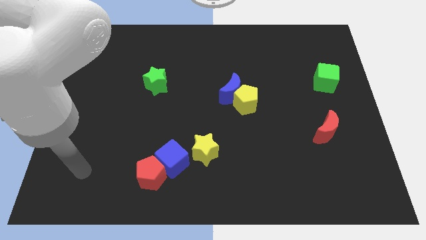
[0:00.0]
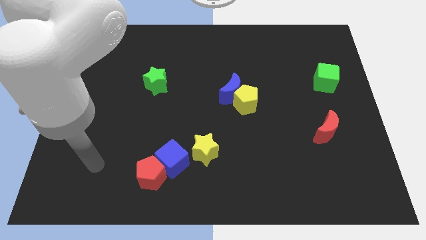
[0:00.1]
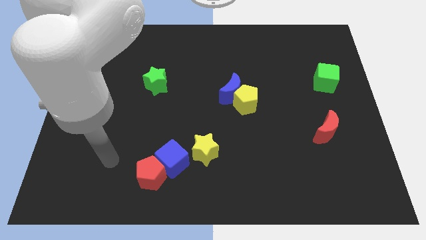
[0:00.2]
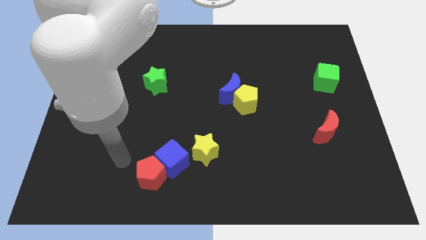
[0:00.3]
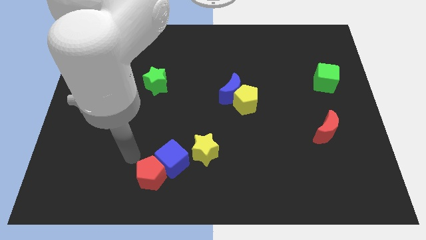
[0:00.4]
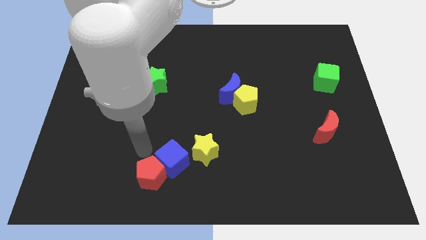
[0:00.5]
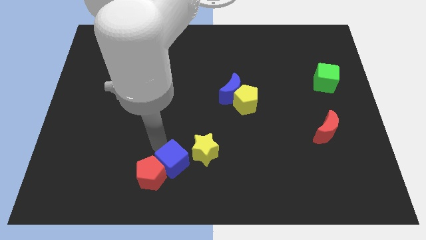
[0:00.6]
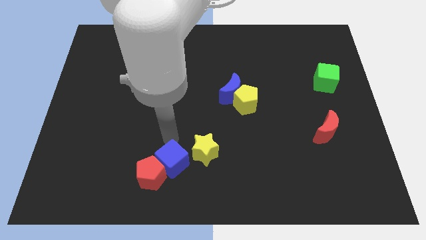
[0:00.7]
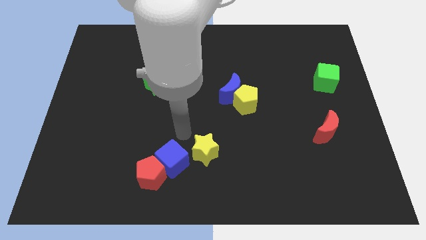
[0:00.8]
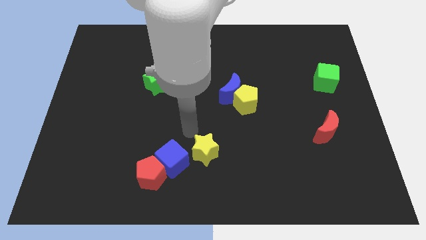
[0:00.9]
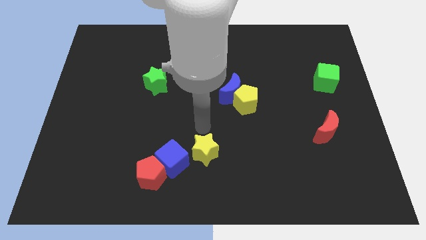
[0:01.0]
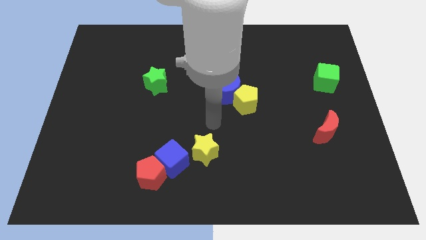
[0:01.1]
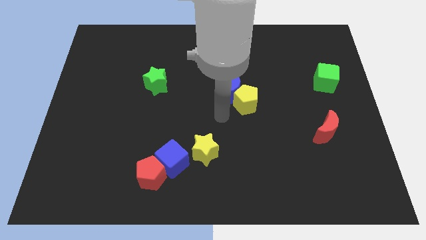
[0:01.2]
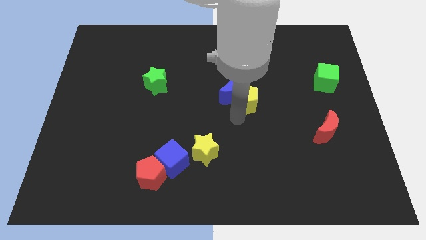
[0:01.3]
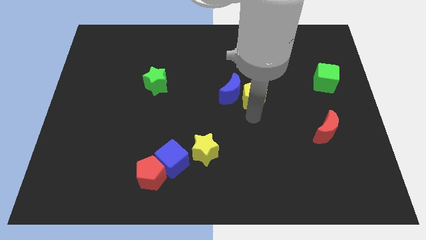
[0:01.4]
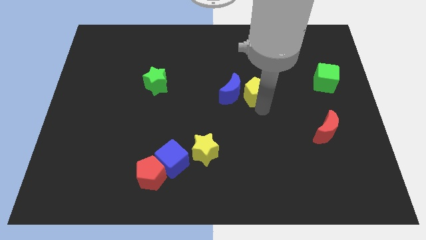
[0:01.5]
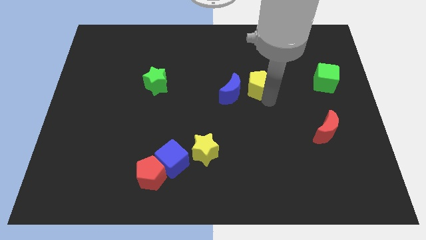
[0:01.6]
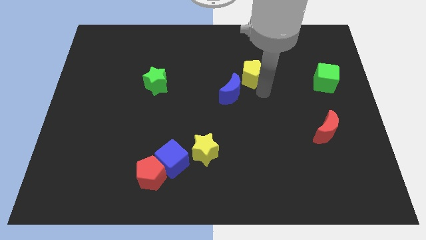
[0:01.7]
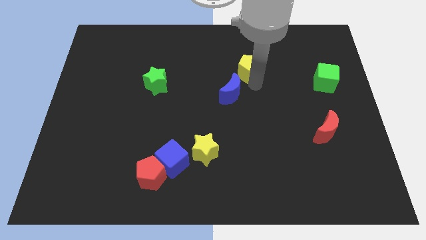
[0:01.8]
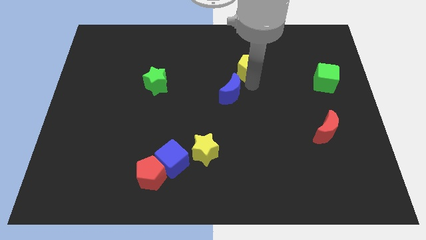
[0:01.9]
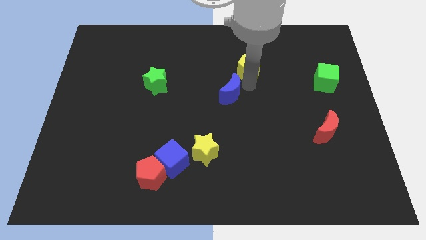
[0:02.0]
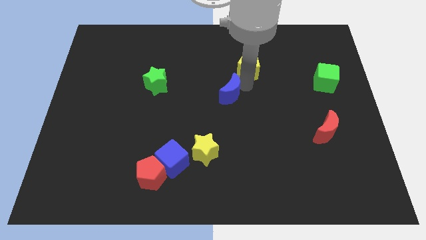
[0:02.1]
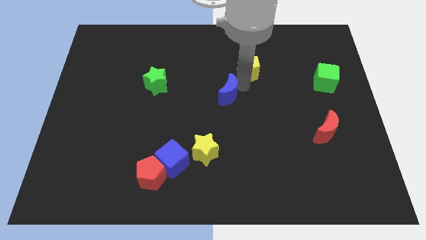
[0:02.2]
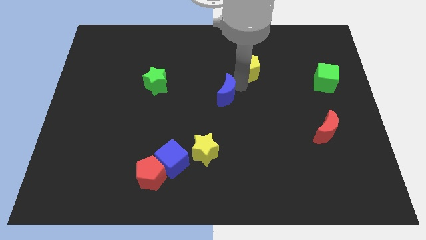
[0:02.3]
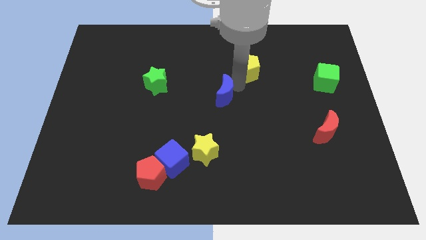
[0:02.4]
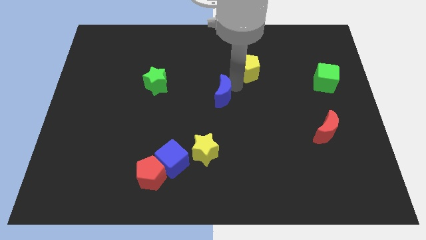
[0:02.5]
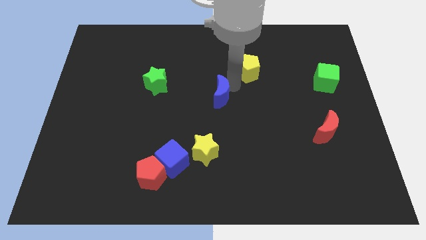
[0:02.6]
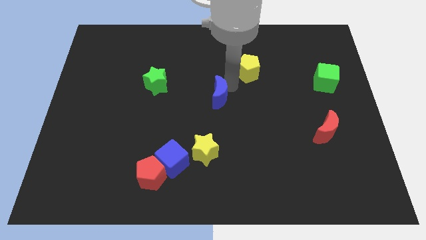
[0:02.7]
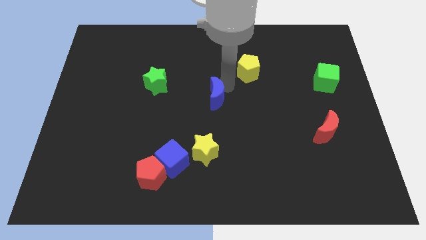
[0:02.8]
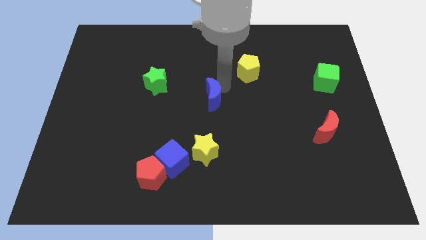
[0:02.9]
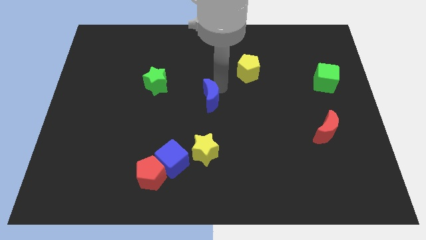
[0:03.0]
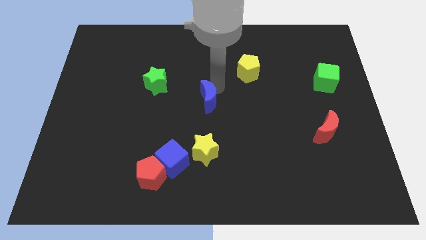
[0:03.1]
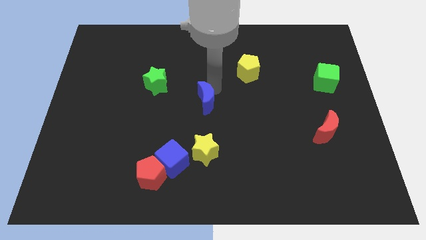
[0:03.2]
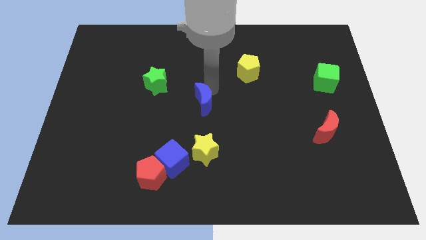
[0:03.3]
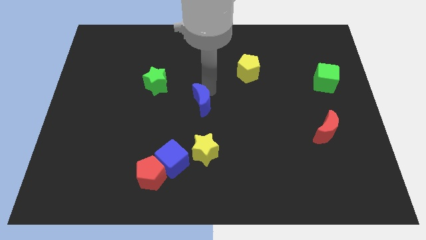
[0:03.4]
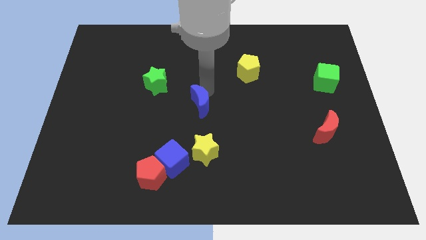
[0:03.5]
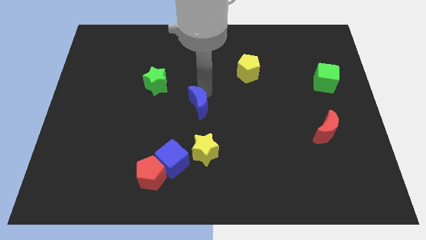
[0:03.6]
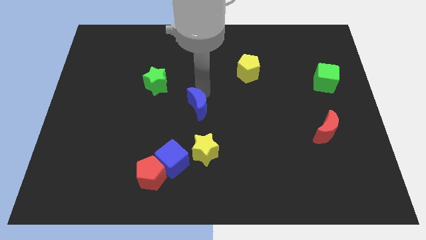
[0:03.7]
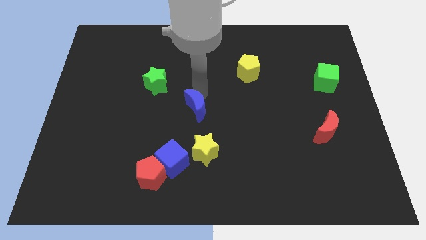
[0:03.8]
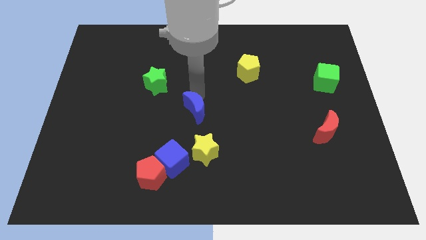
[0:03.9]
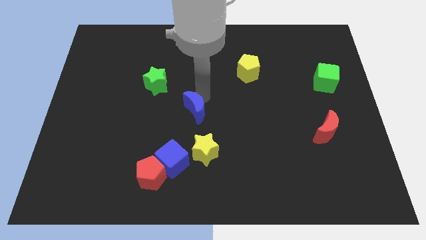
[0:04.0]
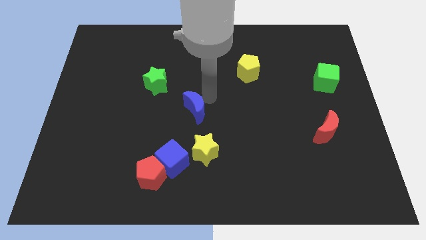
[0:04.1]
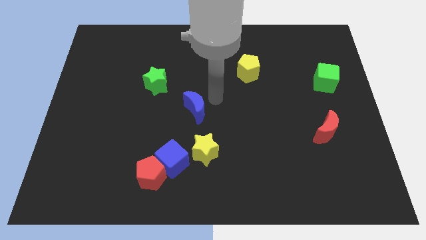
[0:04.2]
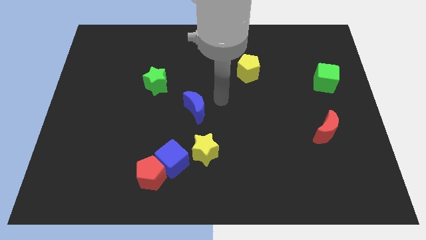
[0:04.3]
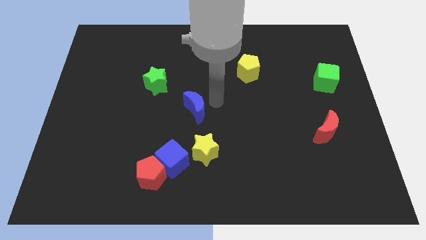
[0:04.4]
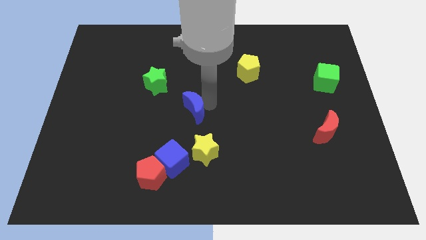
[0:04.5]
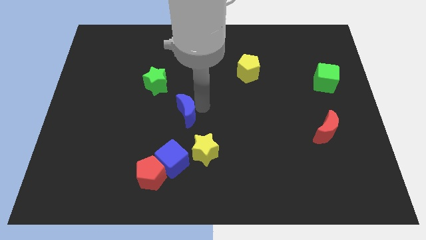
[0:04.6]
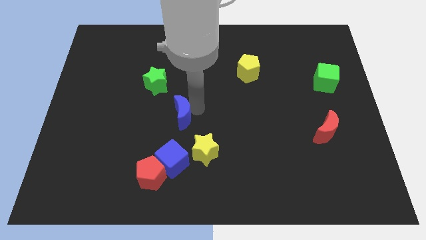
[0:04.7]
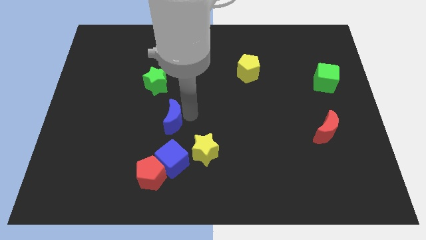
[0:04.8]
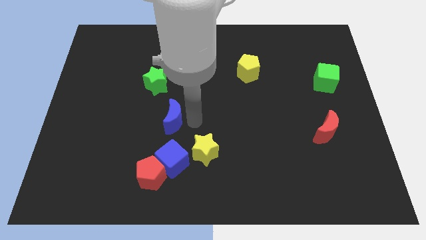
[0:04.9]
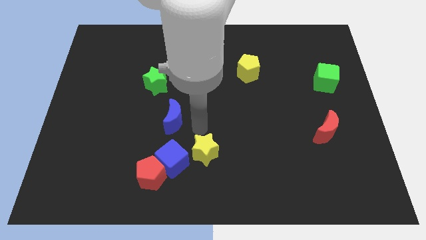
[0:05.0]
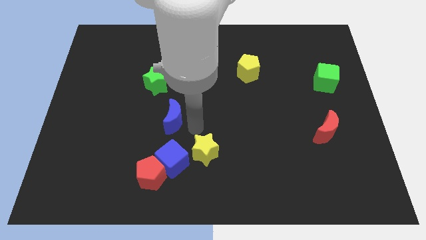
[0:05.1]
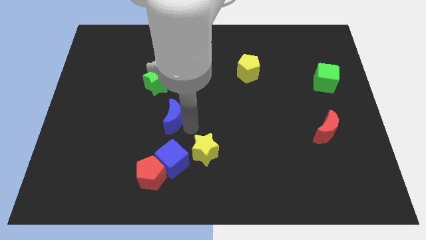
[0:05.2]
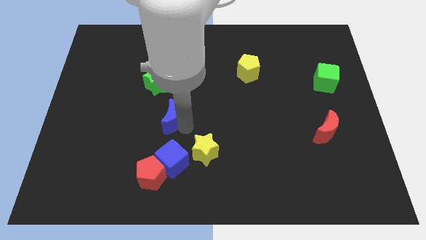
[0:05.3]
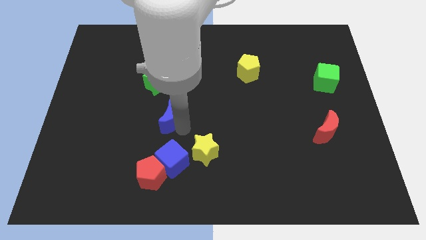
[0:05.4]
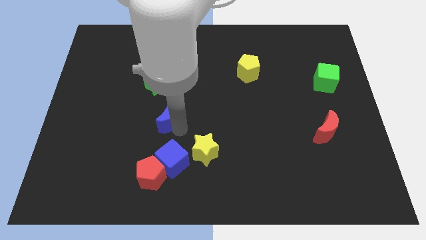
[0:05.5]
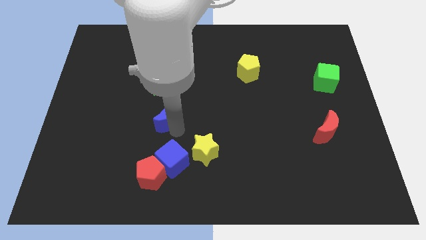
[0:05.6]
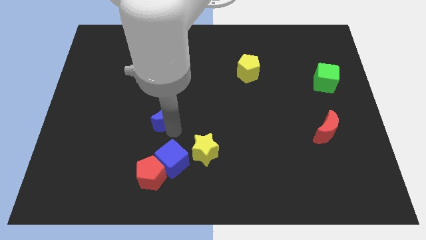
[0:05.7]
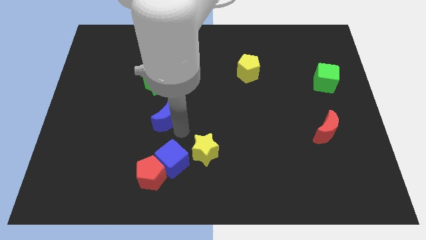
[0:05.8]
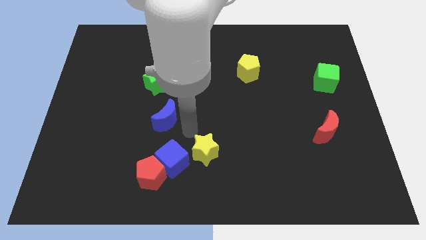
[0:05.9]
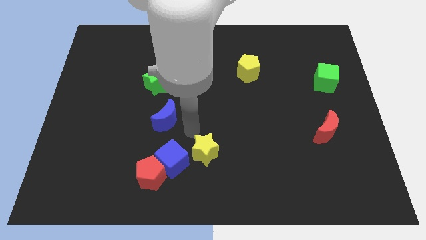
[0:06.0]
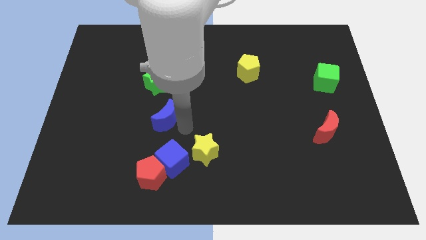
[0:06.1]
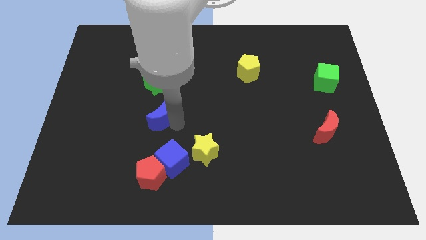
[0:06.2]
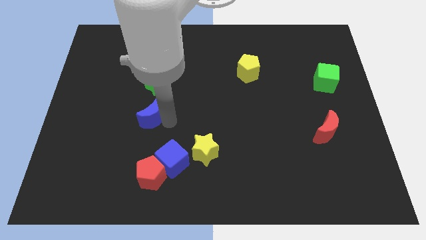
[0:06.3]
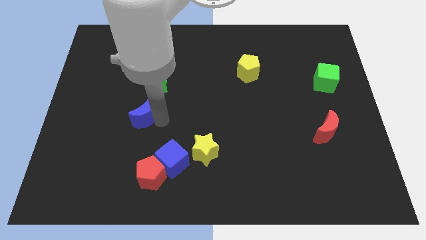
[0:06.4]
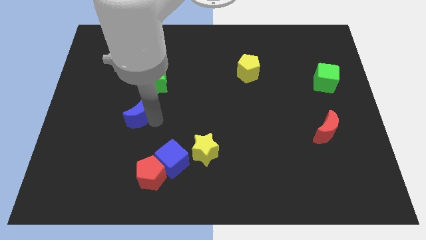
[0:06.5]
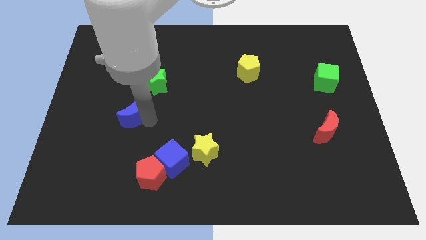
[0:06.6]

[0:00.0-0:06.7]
push the blue moon to the left

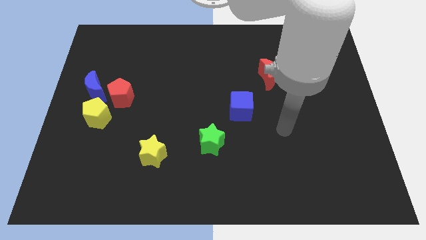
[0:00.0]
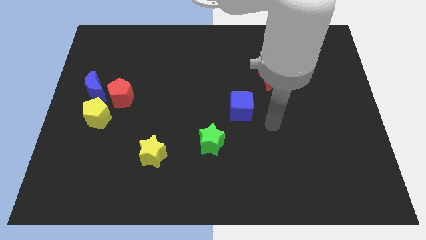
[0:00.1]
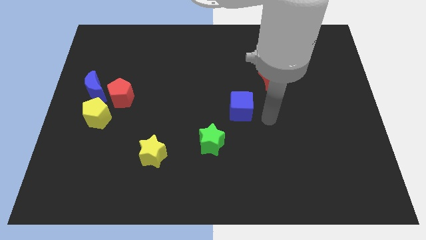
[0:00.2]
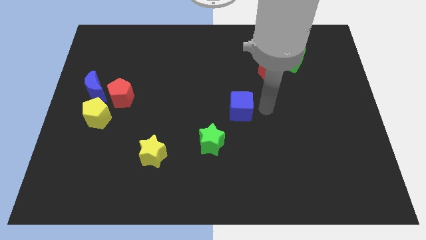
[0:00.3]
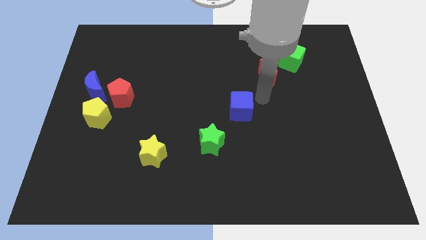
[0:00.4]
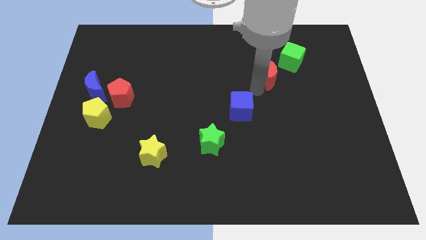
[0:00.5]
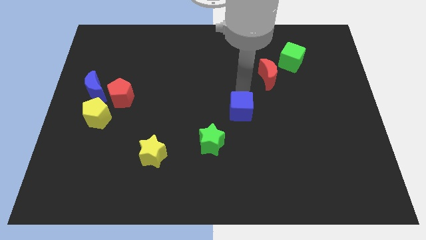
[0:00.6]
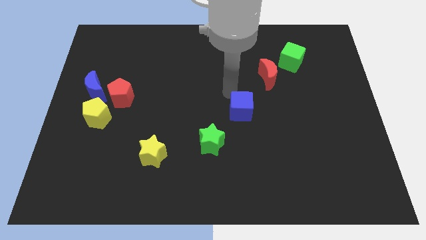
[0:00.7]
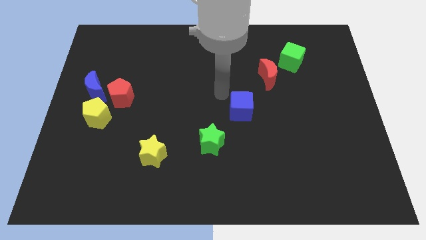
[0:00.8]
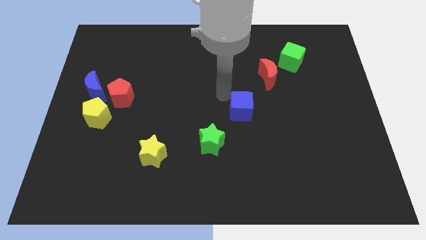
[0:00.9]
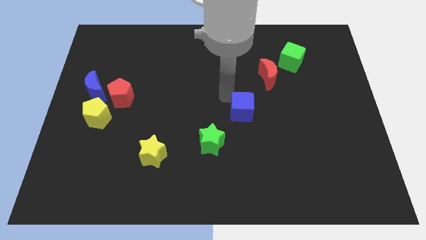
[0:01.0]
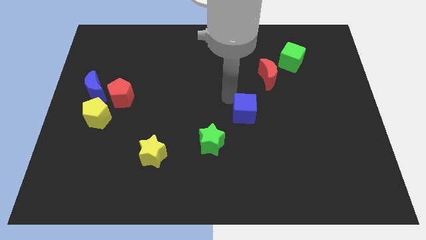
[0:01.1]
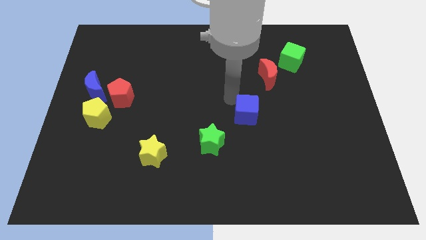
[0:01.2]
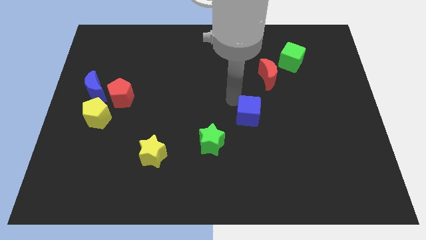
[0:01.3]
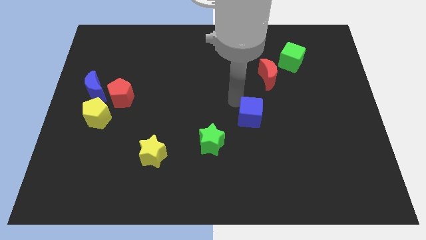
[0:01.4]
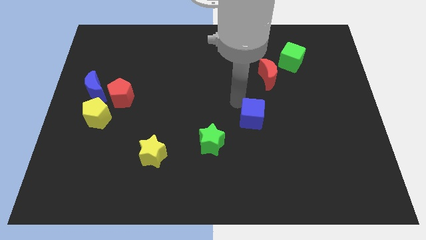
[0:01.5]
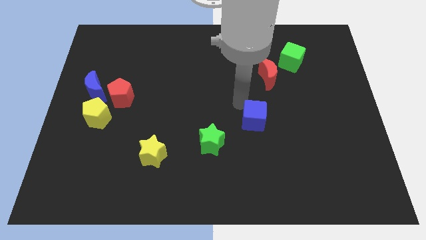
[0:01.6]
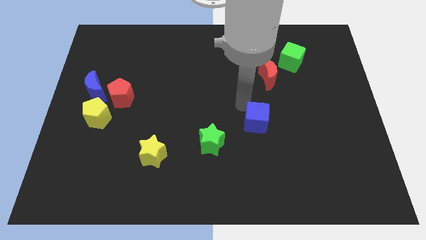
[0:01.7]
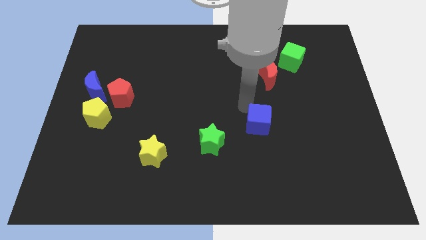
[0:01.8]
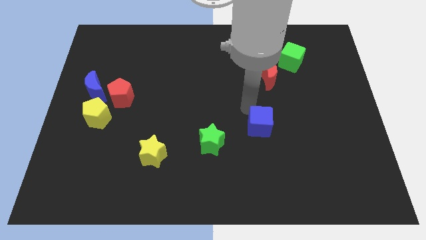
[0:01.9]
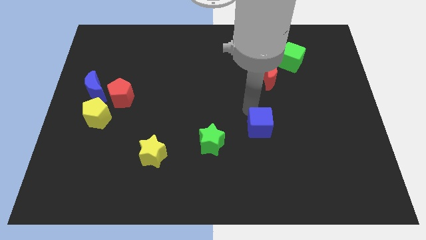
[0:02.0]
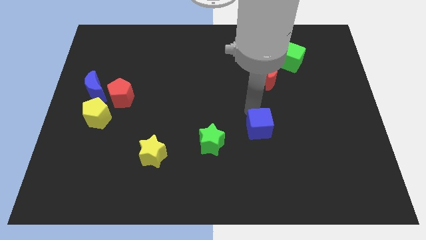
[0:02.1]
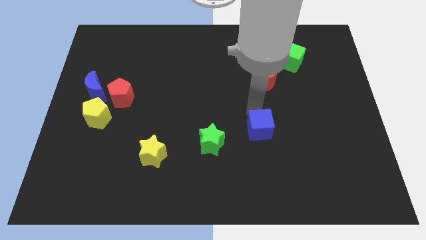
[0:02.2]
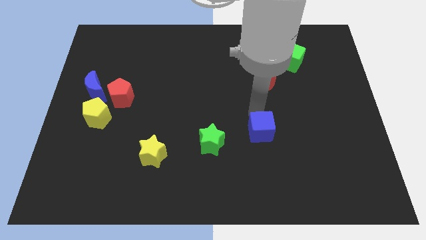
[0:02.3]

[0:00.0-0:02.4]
push the blue cube somewhat downwards and to the right
